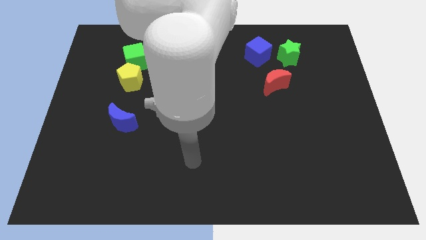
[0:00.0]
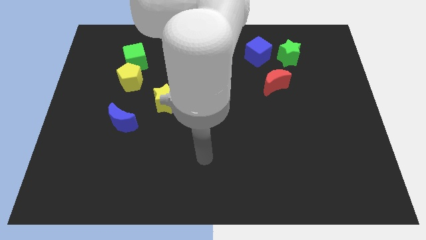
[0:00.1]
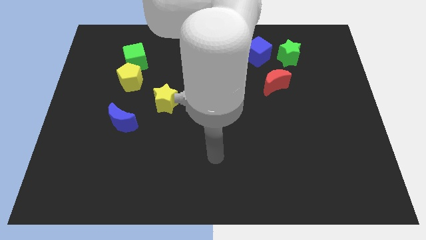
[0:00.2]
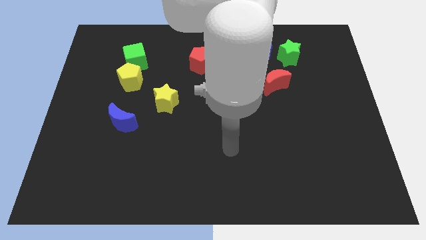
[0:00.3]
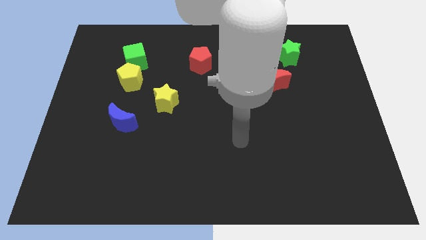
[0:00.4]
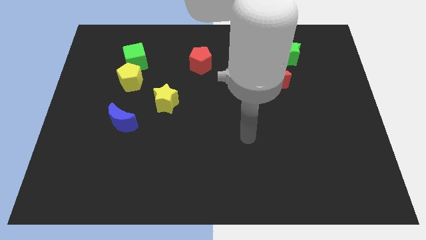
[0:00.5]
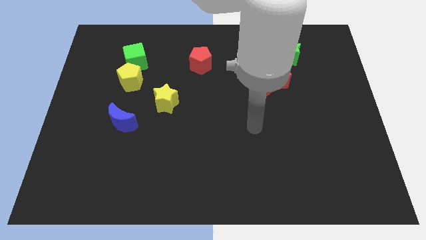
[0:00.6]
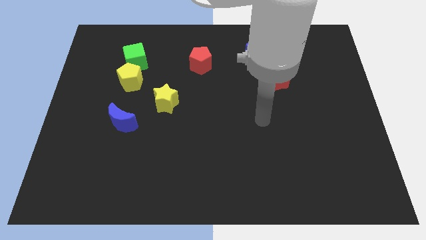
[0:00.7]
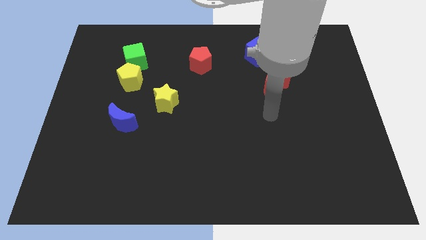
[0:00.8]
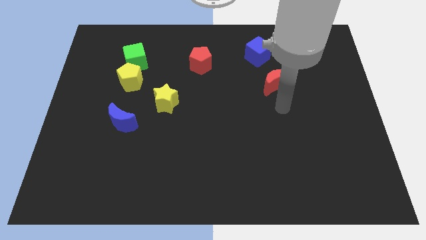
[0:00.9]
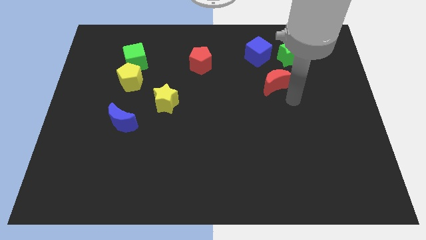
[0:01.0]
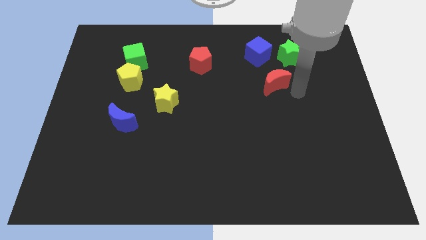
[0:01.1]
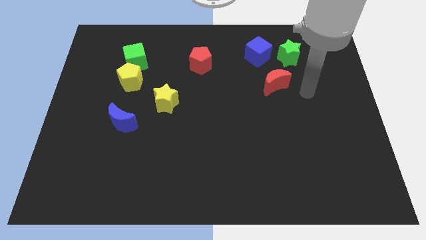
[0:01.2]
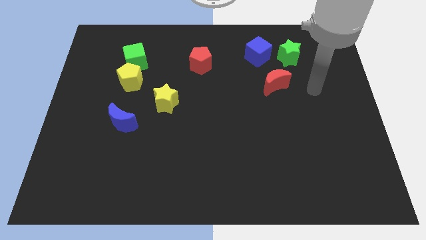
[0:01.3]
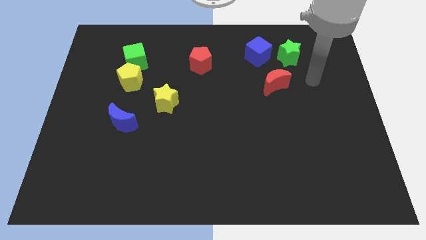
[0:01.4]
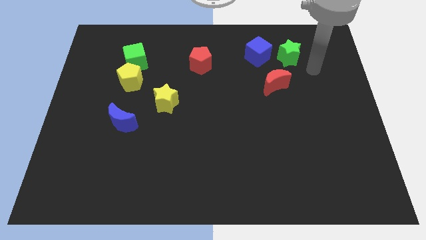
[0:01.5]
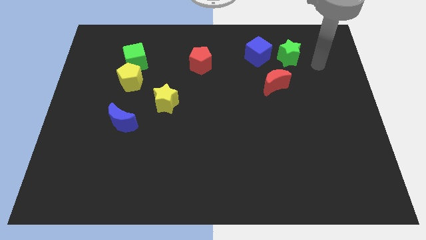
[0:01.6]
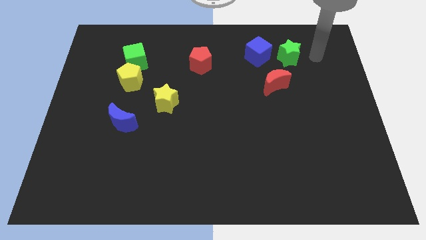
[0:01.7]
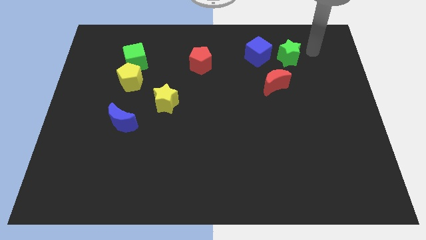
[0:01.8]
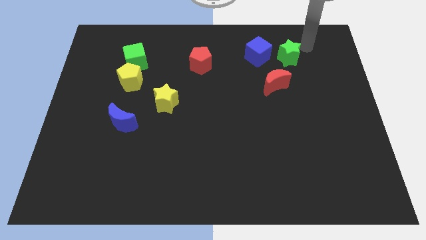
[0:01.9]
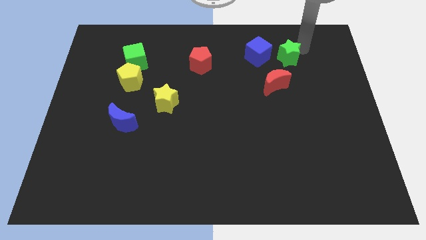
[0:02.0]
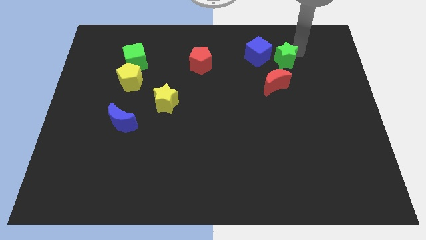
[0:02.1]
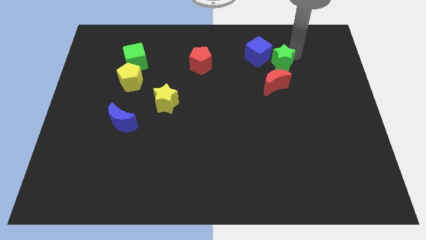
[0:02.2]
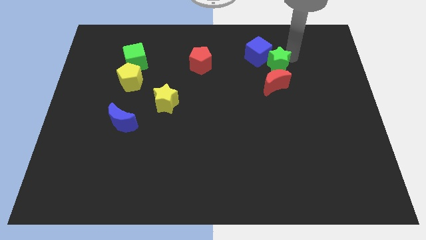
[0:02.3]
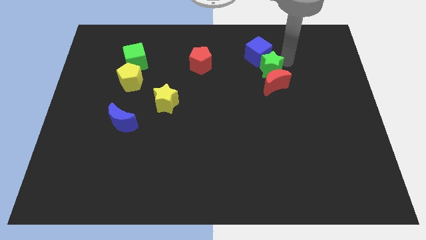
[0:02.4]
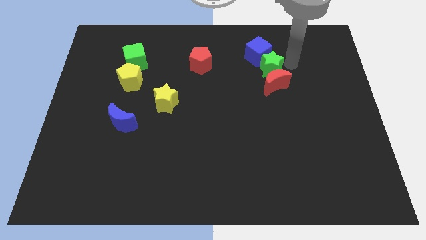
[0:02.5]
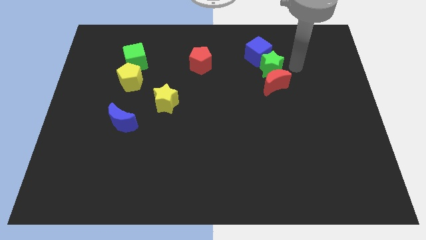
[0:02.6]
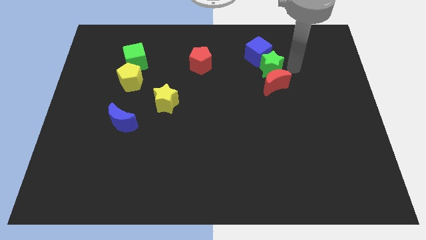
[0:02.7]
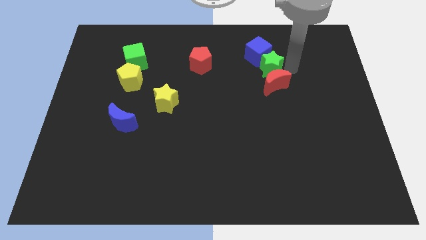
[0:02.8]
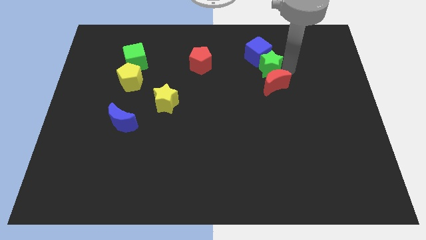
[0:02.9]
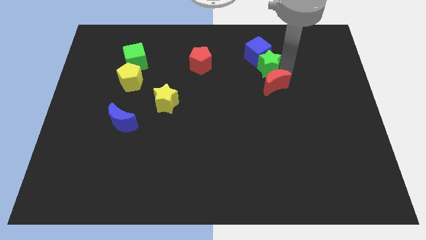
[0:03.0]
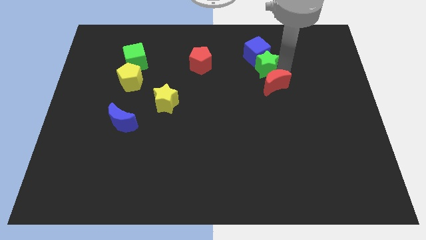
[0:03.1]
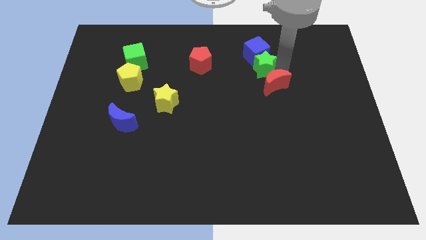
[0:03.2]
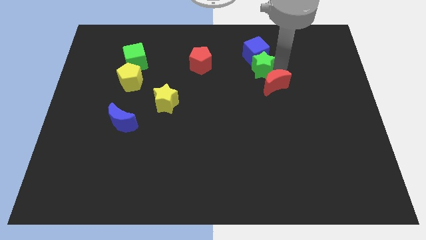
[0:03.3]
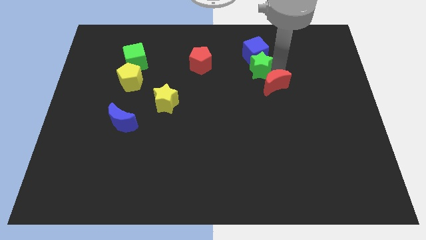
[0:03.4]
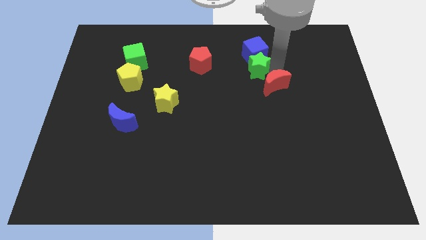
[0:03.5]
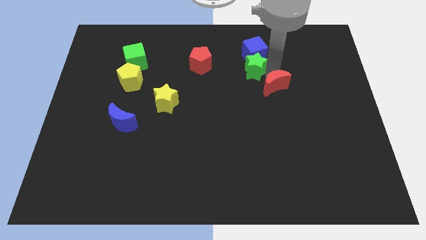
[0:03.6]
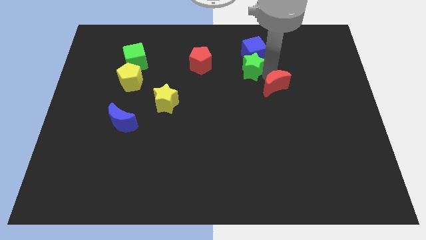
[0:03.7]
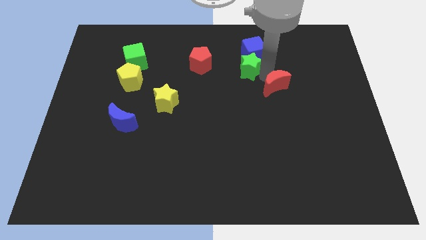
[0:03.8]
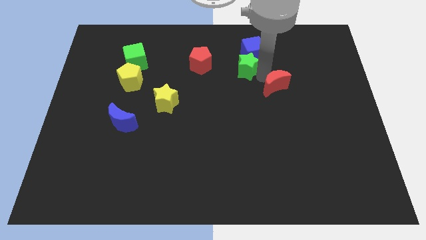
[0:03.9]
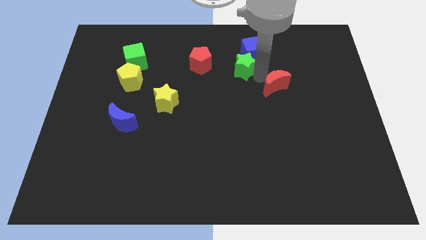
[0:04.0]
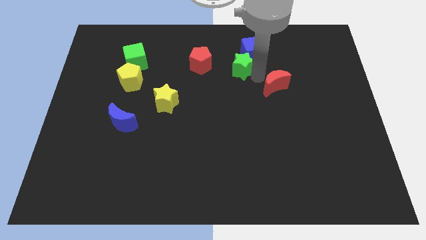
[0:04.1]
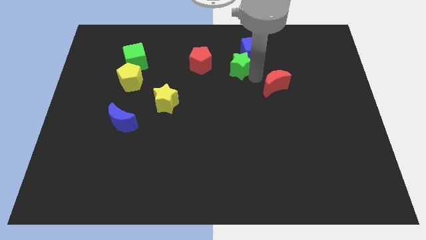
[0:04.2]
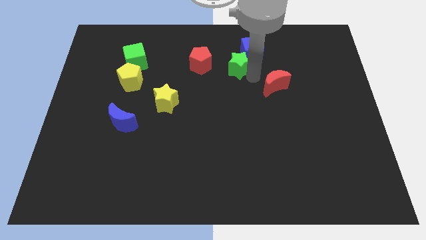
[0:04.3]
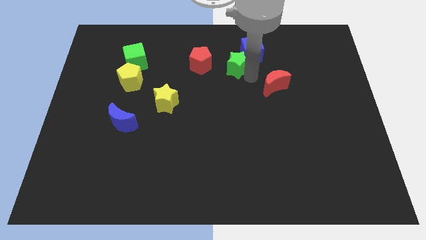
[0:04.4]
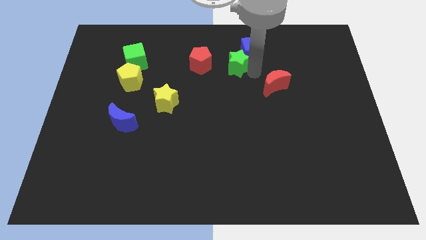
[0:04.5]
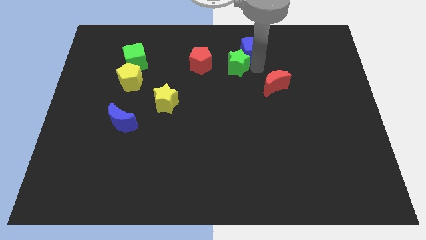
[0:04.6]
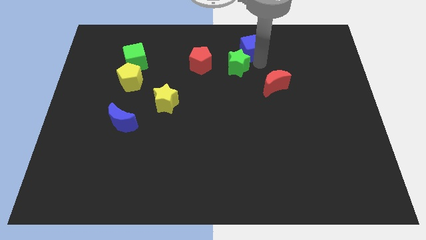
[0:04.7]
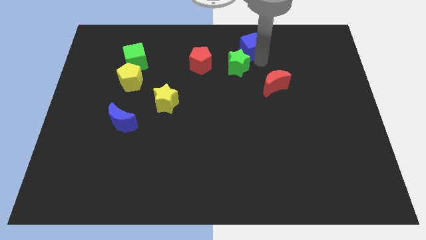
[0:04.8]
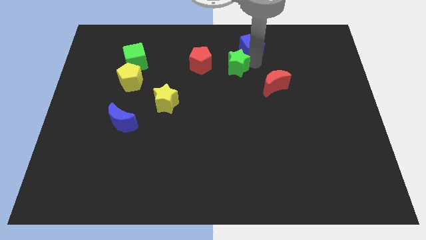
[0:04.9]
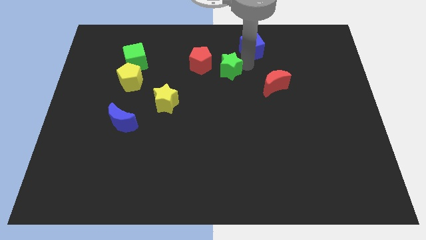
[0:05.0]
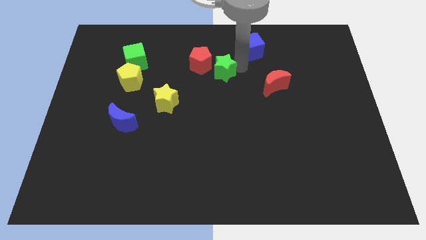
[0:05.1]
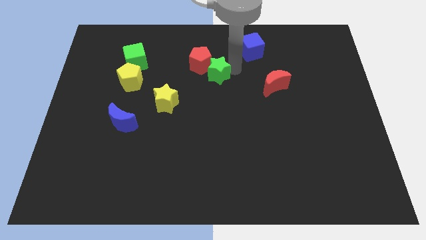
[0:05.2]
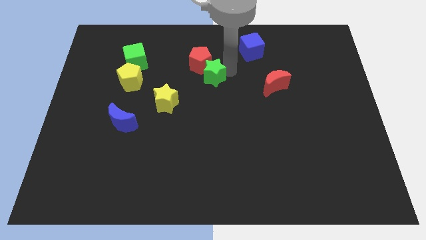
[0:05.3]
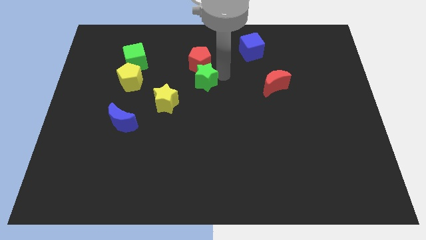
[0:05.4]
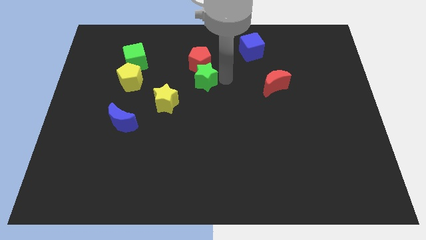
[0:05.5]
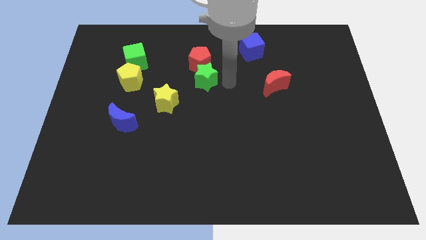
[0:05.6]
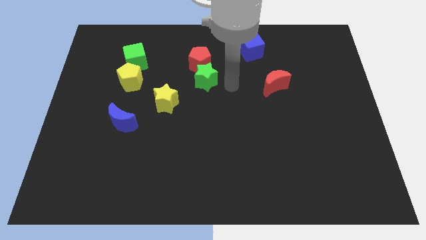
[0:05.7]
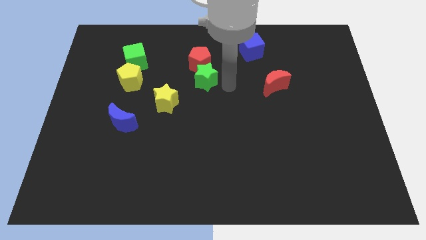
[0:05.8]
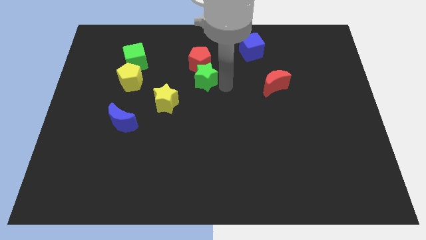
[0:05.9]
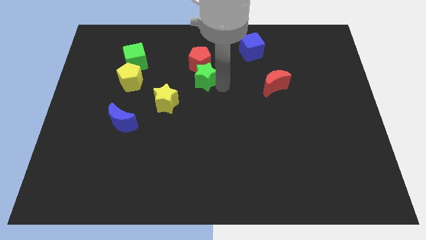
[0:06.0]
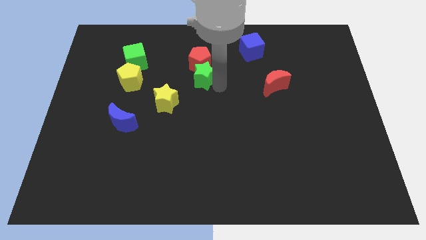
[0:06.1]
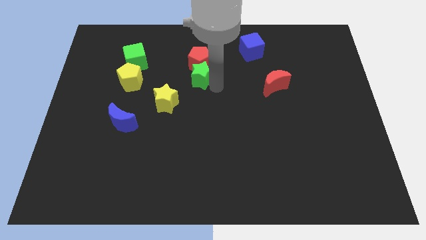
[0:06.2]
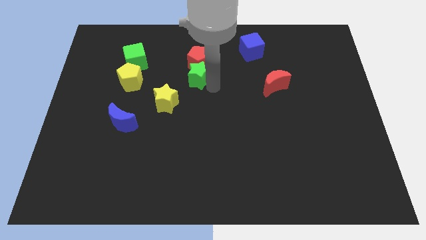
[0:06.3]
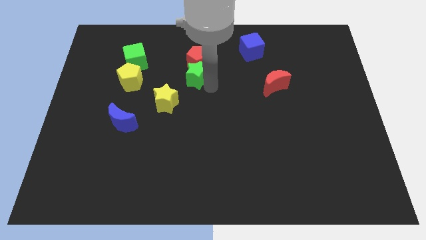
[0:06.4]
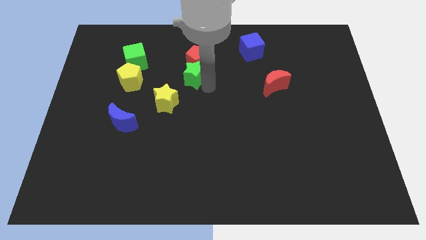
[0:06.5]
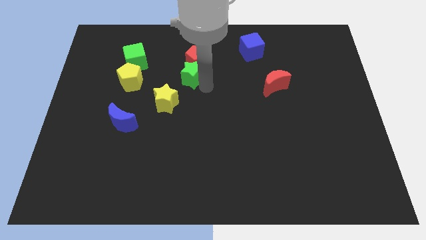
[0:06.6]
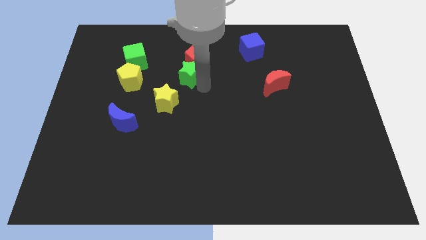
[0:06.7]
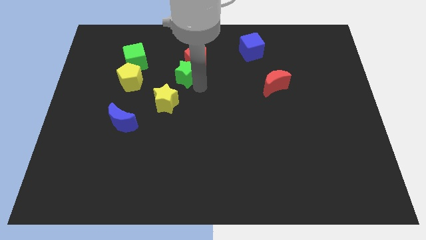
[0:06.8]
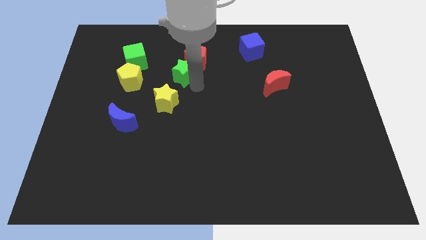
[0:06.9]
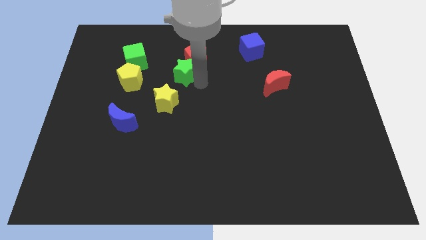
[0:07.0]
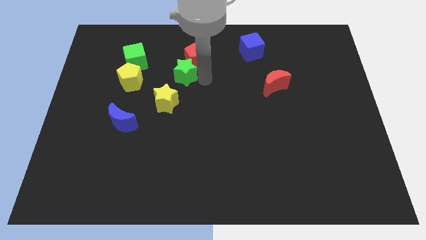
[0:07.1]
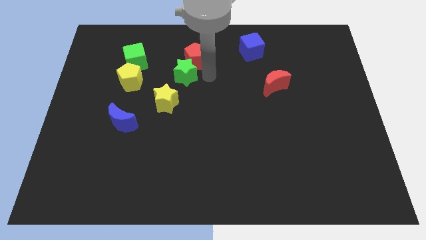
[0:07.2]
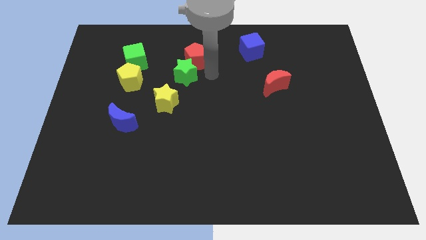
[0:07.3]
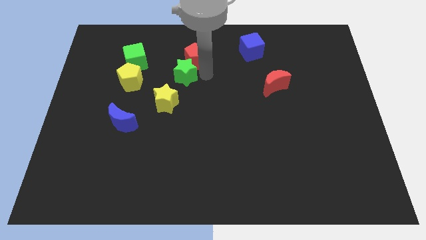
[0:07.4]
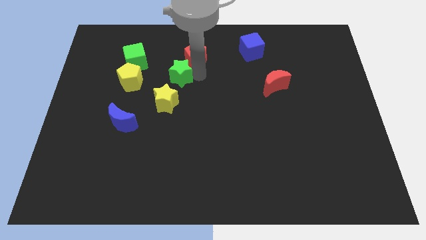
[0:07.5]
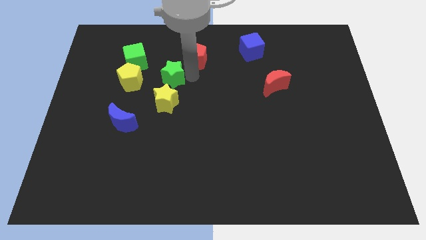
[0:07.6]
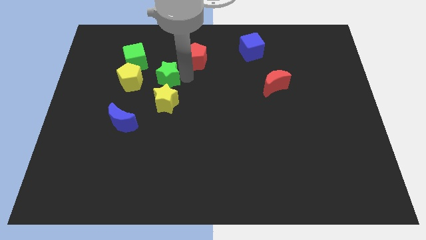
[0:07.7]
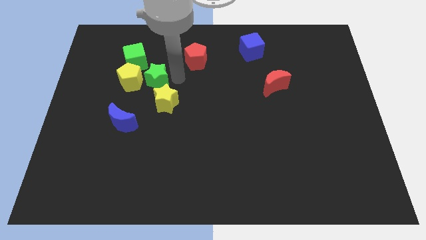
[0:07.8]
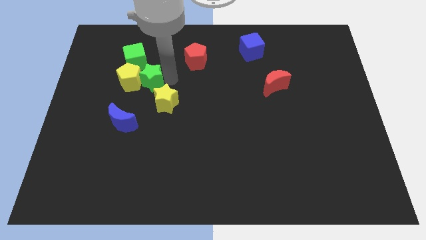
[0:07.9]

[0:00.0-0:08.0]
put the green star next to the yellow pentagon
